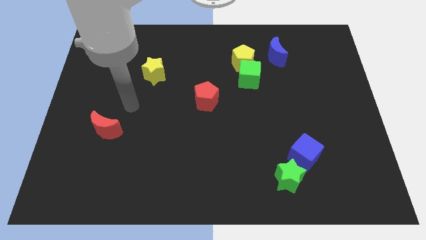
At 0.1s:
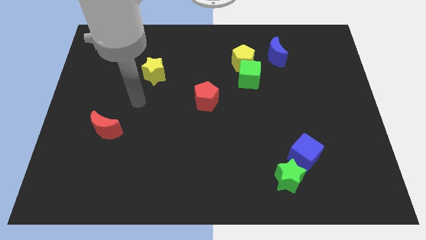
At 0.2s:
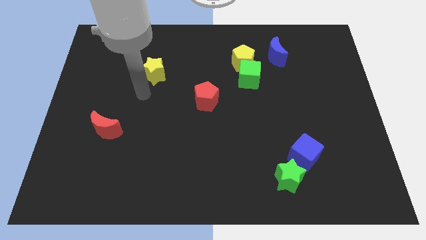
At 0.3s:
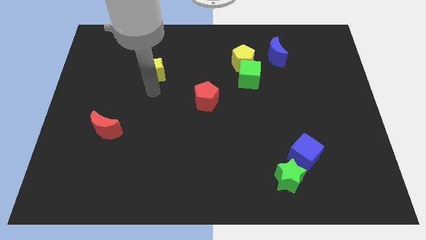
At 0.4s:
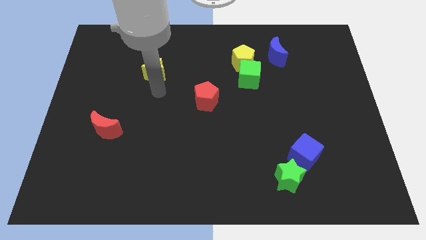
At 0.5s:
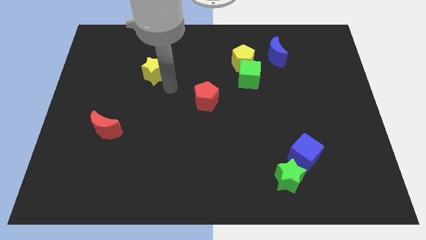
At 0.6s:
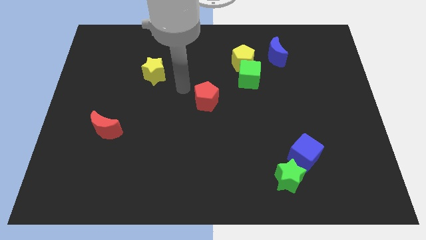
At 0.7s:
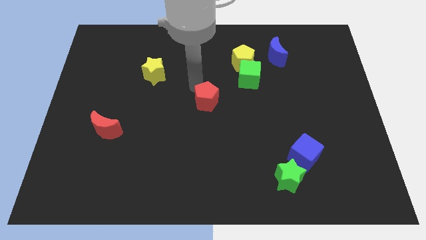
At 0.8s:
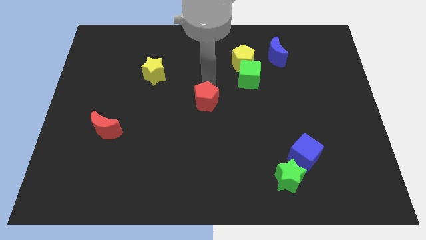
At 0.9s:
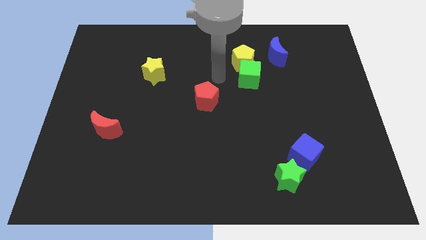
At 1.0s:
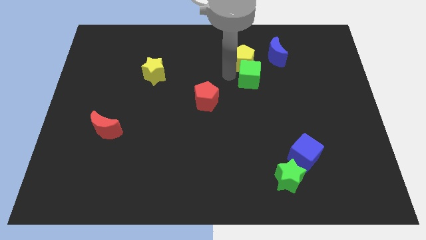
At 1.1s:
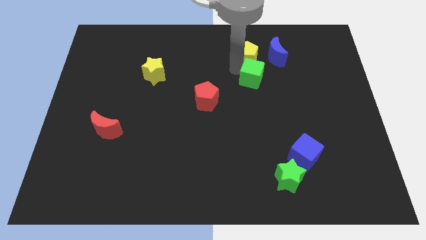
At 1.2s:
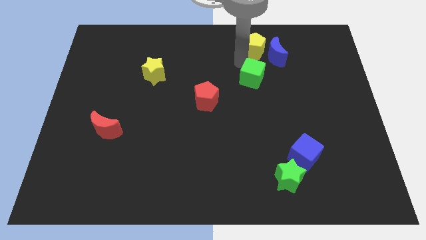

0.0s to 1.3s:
move the green cube away from the yellow pentagon

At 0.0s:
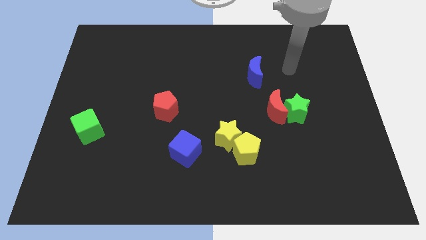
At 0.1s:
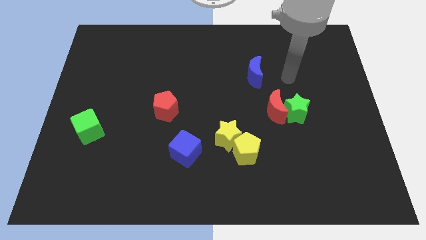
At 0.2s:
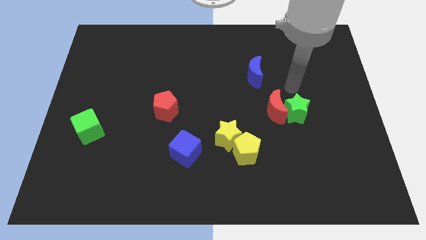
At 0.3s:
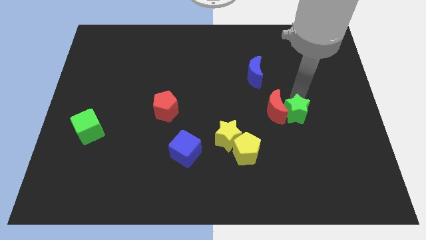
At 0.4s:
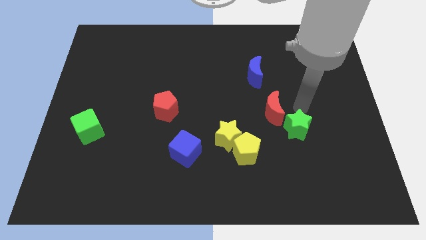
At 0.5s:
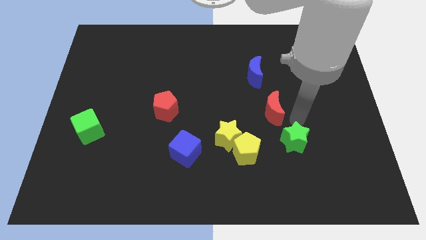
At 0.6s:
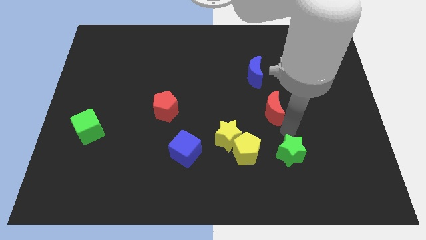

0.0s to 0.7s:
move the red moon away from the green star

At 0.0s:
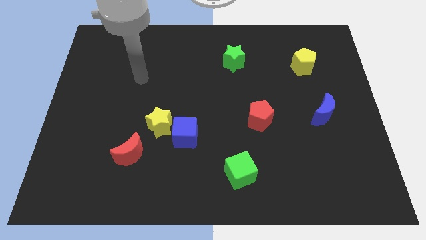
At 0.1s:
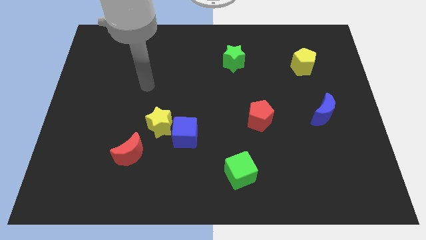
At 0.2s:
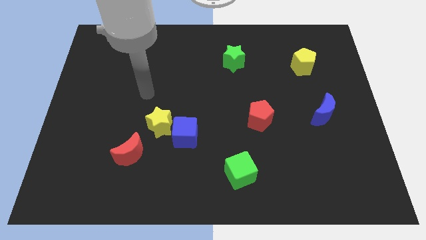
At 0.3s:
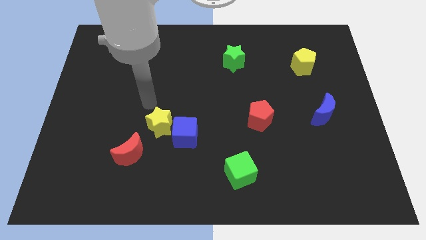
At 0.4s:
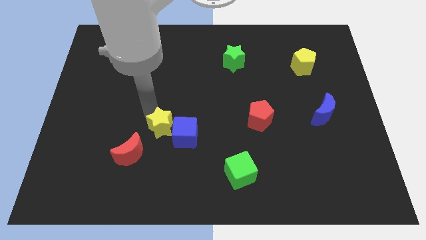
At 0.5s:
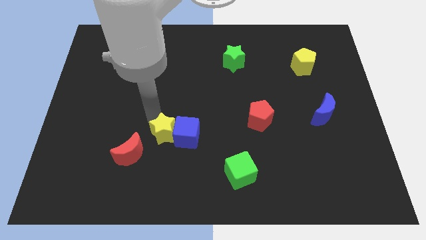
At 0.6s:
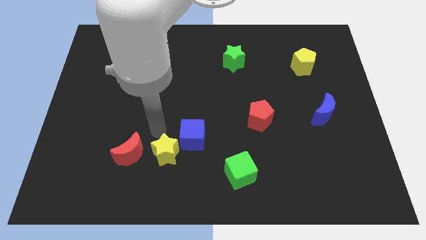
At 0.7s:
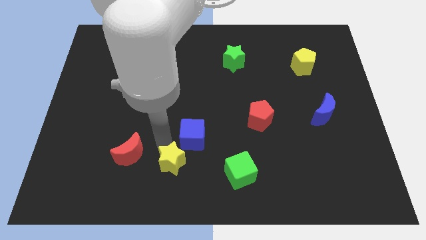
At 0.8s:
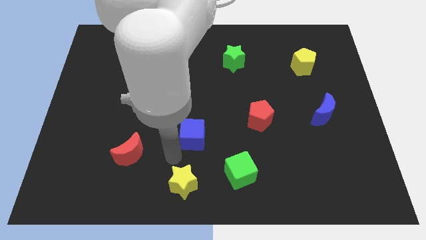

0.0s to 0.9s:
pull the blue cube apart from the yellow star

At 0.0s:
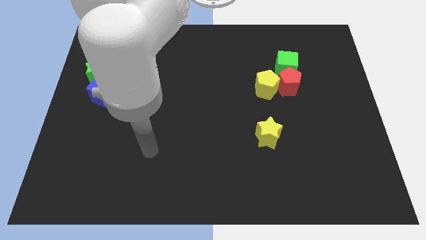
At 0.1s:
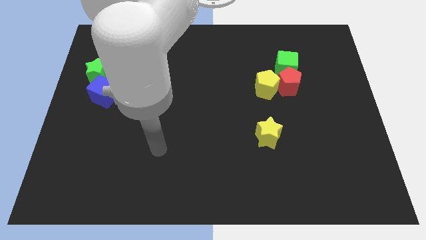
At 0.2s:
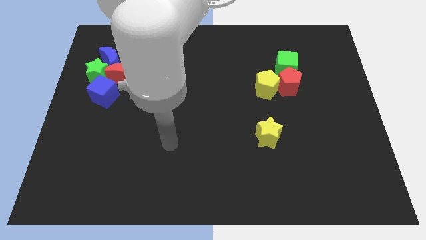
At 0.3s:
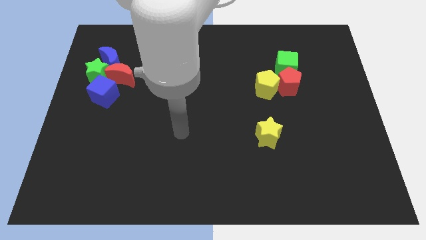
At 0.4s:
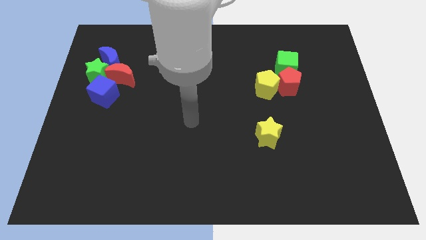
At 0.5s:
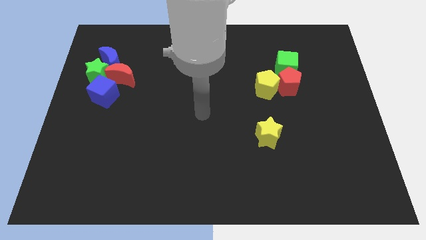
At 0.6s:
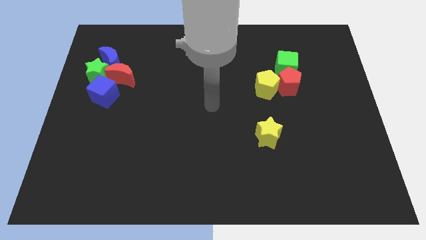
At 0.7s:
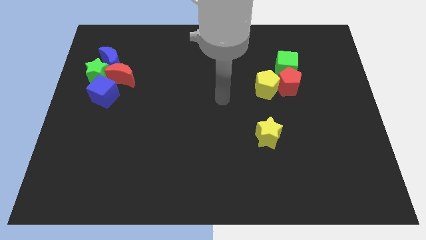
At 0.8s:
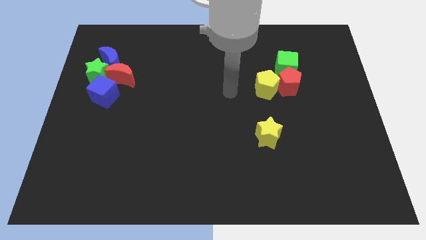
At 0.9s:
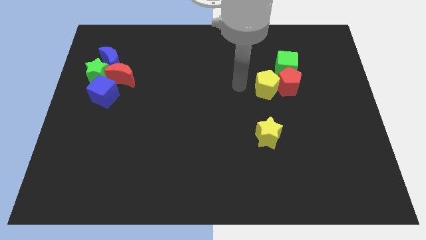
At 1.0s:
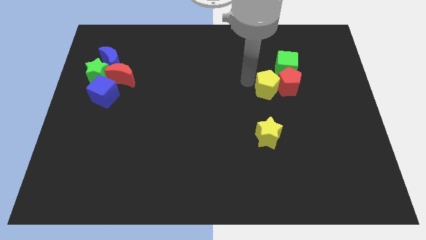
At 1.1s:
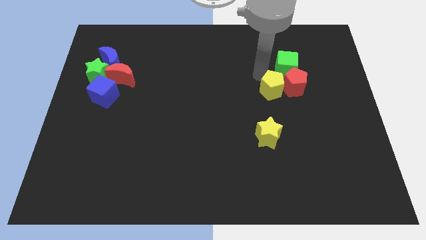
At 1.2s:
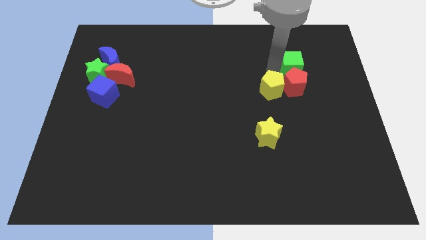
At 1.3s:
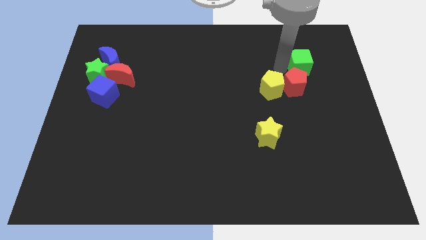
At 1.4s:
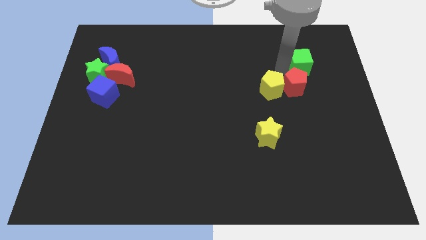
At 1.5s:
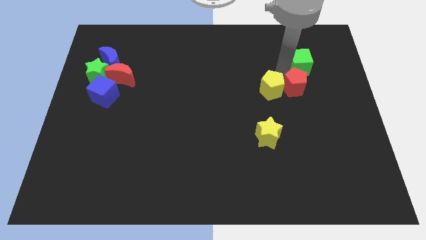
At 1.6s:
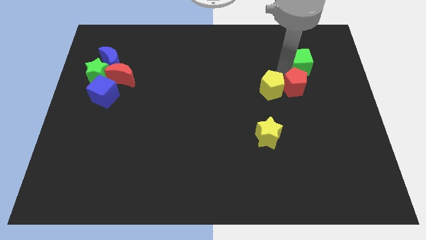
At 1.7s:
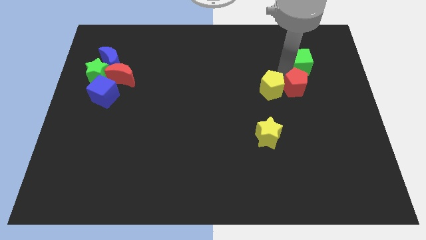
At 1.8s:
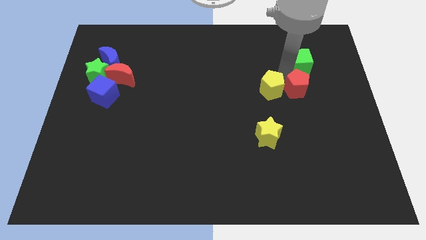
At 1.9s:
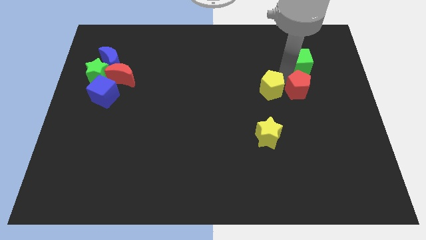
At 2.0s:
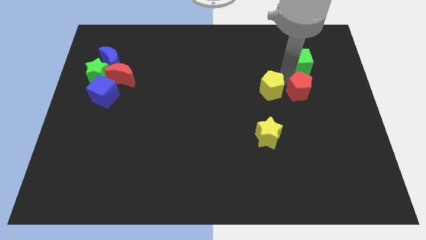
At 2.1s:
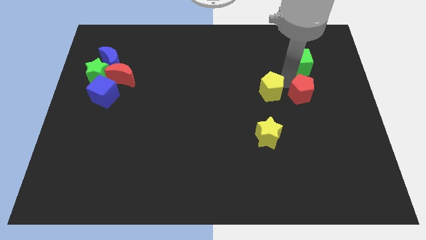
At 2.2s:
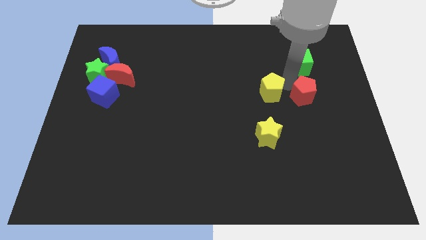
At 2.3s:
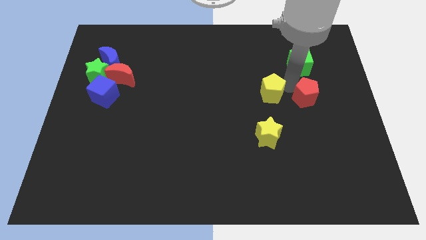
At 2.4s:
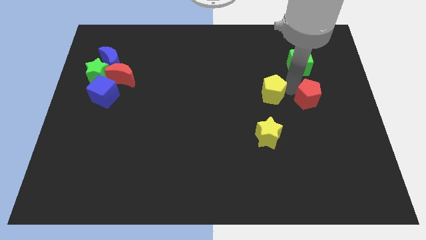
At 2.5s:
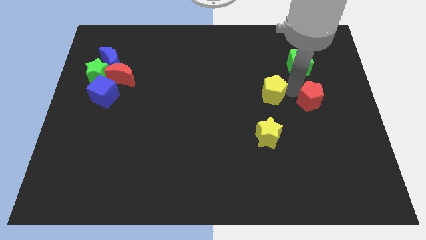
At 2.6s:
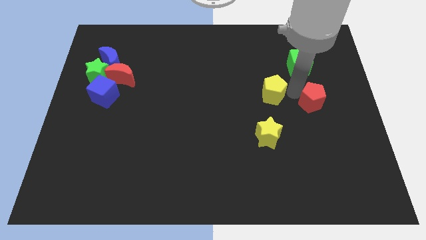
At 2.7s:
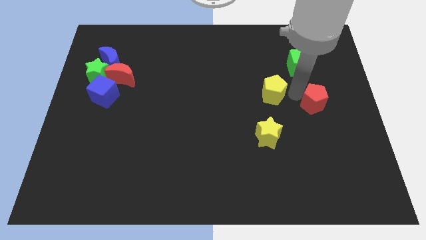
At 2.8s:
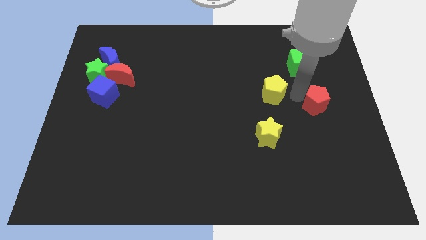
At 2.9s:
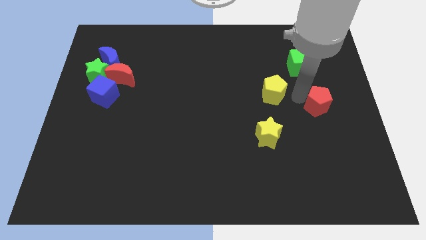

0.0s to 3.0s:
pull the red pentagon apart from the yellow pentagon and green cube

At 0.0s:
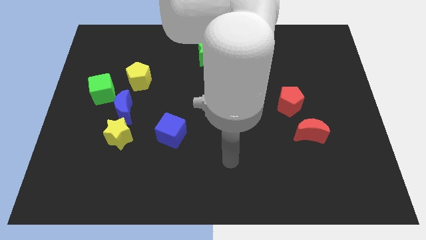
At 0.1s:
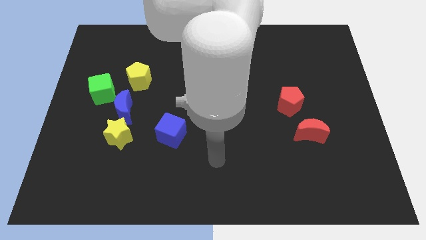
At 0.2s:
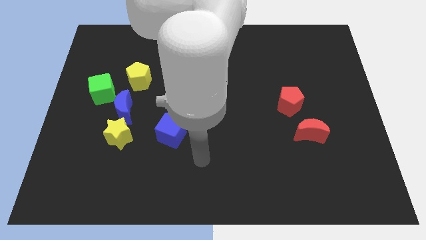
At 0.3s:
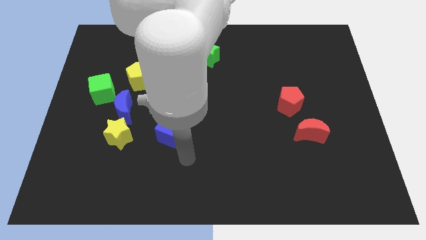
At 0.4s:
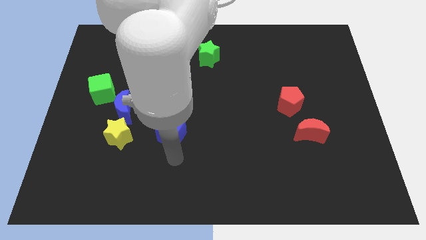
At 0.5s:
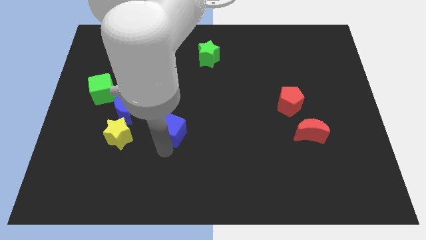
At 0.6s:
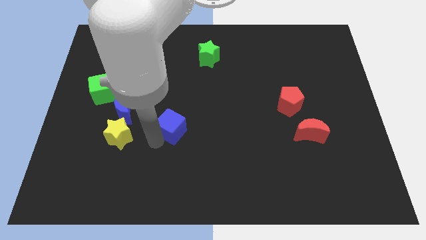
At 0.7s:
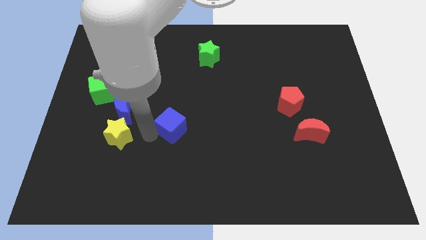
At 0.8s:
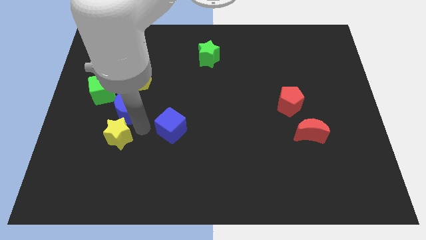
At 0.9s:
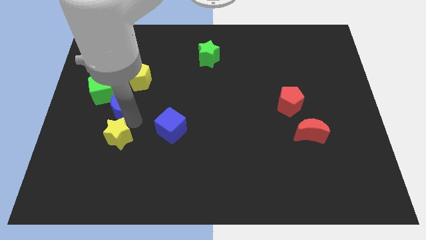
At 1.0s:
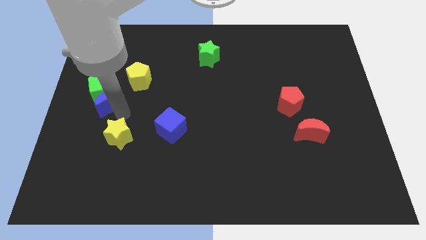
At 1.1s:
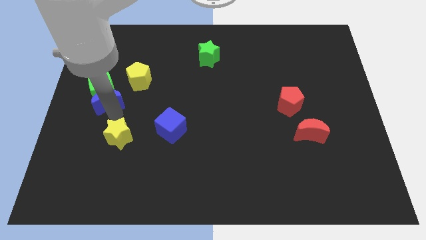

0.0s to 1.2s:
move the yellow star away from the blue moon

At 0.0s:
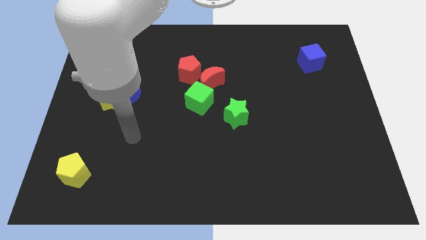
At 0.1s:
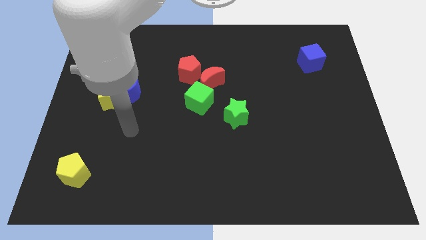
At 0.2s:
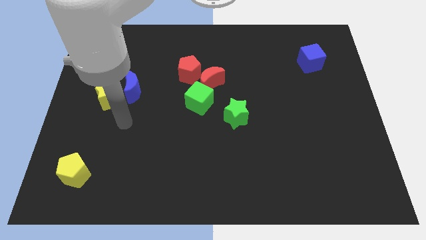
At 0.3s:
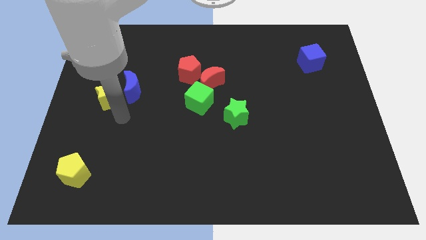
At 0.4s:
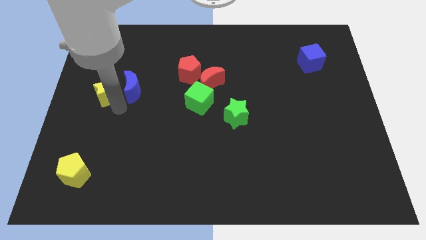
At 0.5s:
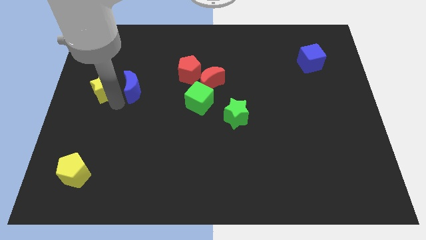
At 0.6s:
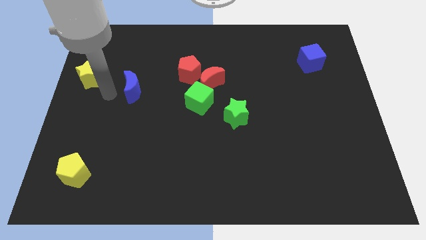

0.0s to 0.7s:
separate the blue moon from the yellow star

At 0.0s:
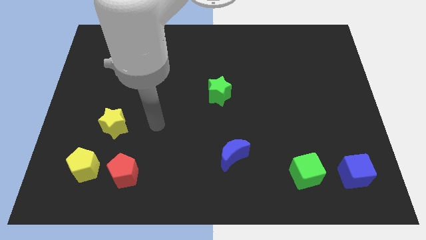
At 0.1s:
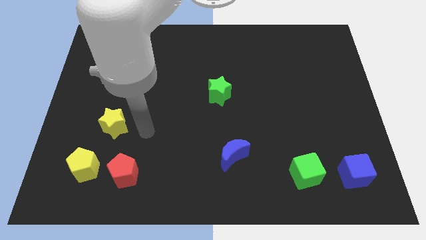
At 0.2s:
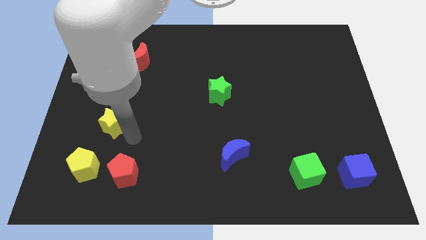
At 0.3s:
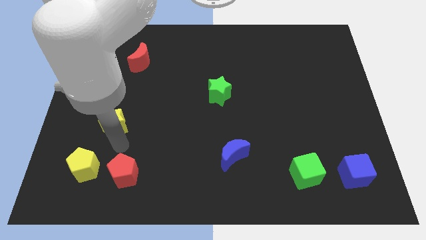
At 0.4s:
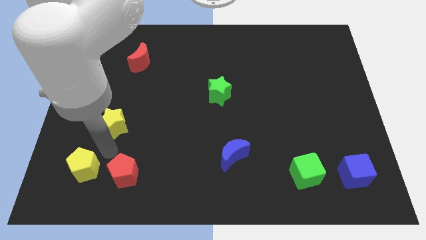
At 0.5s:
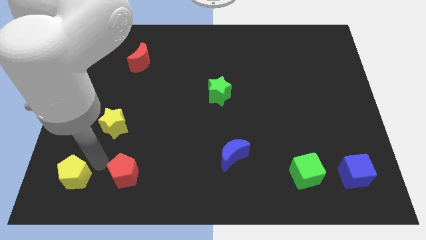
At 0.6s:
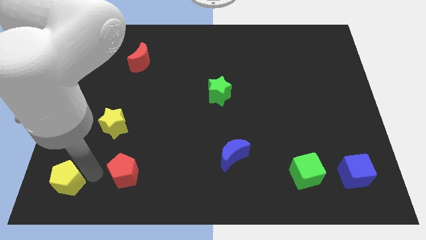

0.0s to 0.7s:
pull the red pentagon apart from the yellow pentagon

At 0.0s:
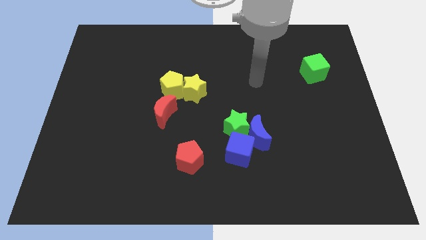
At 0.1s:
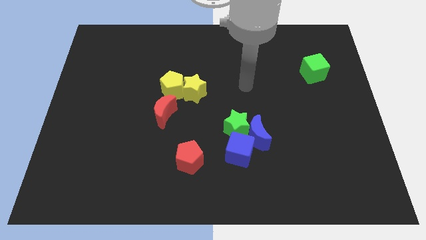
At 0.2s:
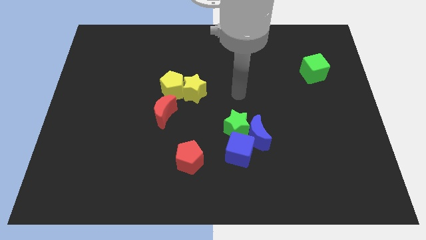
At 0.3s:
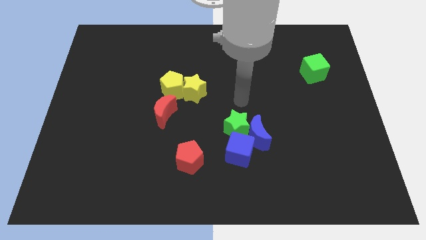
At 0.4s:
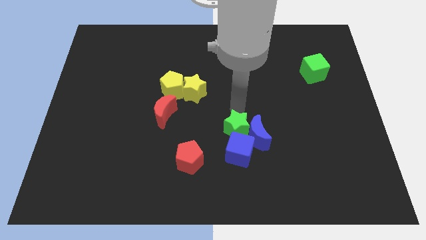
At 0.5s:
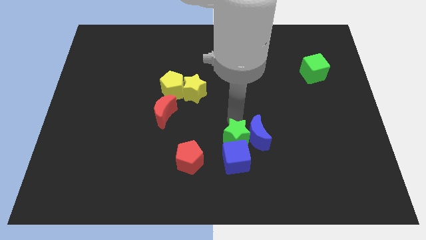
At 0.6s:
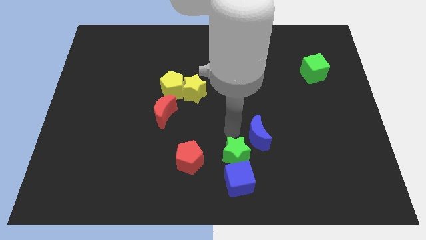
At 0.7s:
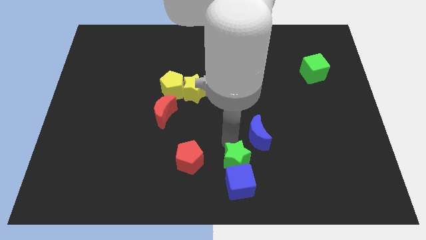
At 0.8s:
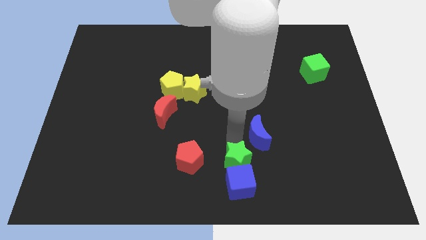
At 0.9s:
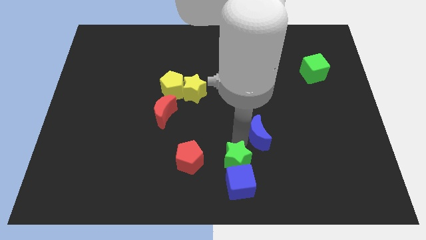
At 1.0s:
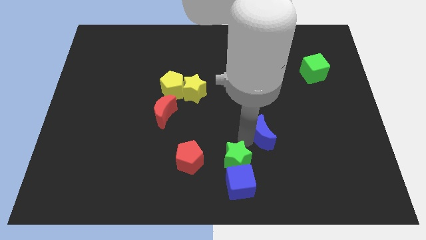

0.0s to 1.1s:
pull the blue moon apart from the green star and blue cube
